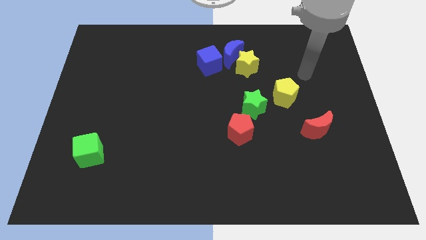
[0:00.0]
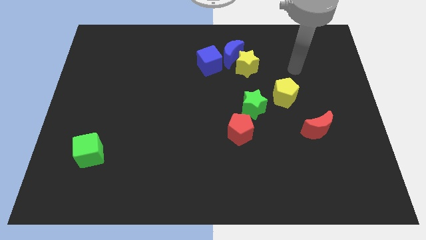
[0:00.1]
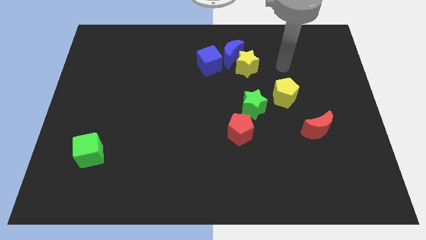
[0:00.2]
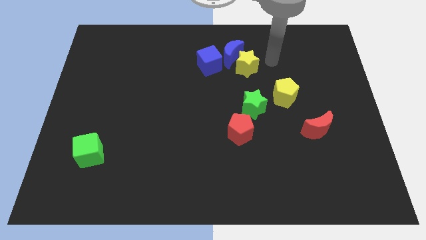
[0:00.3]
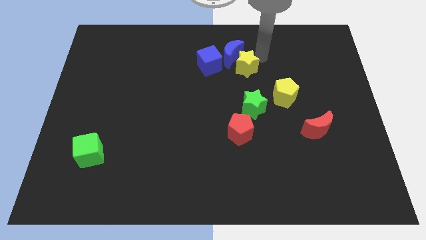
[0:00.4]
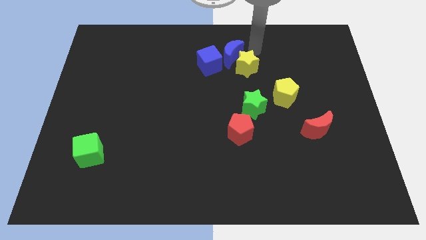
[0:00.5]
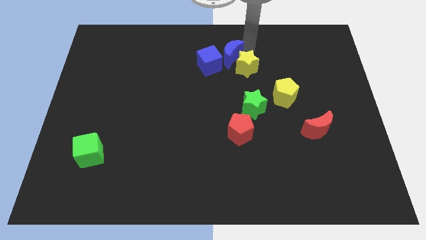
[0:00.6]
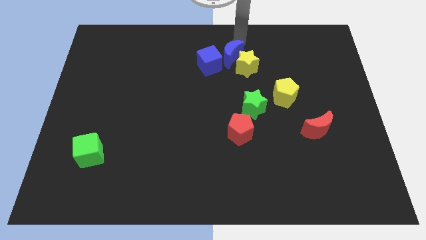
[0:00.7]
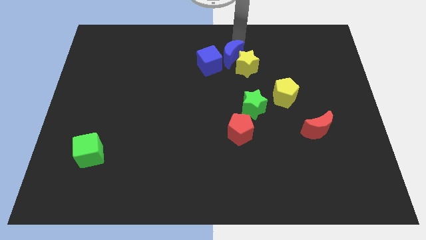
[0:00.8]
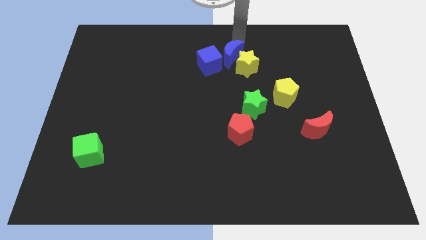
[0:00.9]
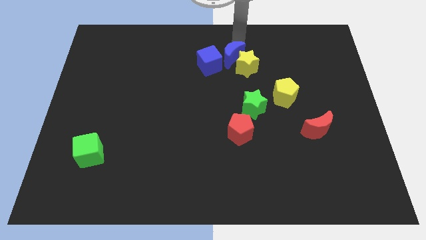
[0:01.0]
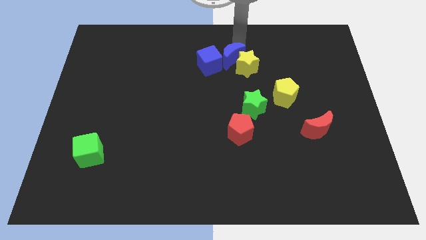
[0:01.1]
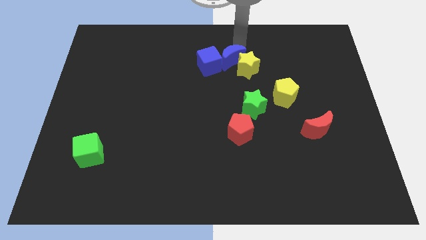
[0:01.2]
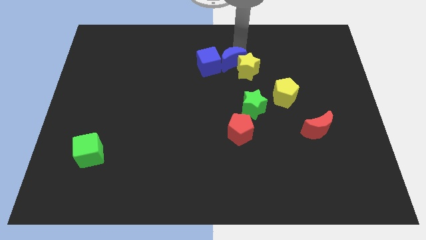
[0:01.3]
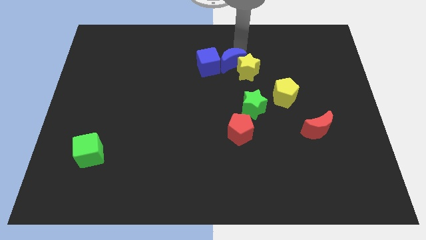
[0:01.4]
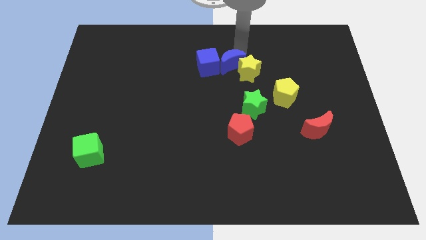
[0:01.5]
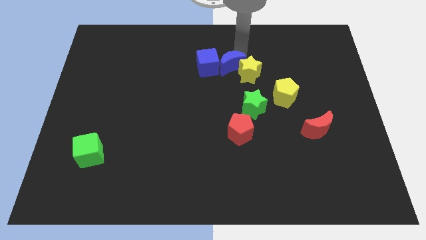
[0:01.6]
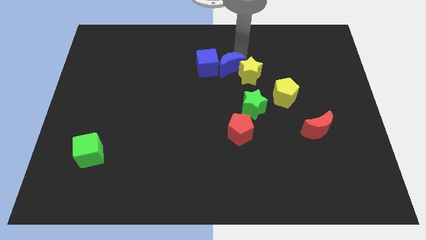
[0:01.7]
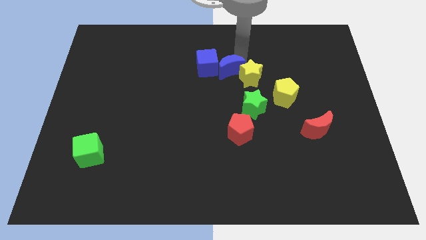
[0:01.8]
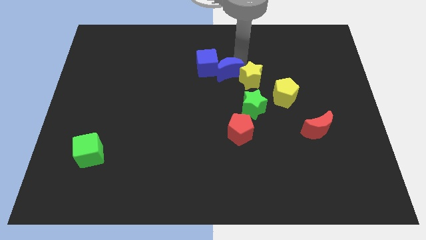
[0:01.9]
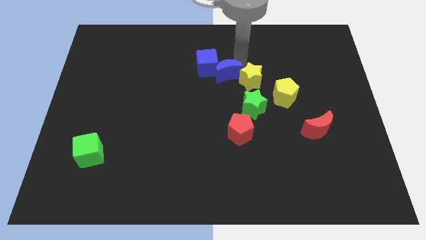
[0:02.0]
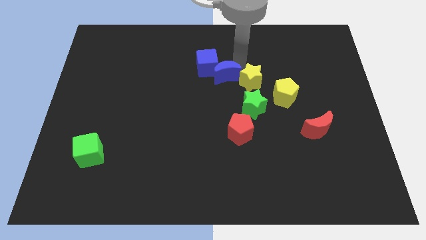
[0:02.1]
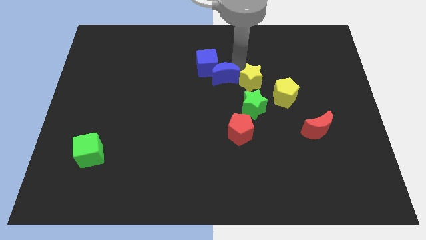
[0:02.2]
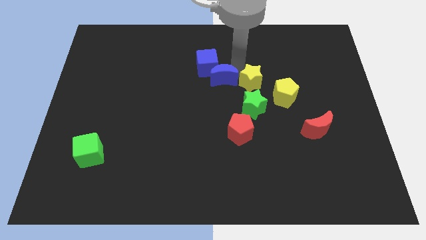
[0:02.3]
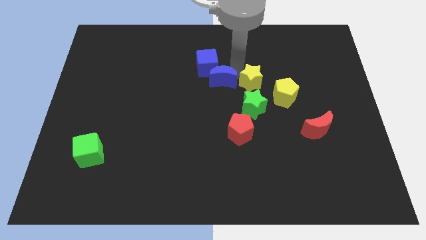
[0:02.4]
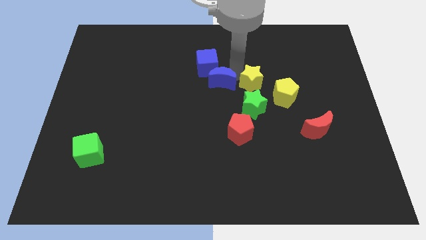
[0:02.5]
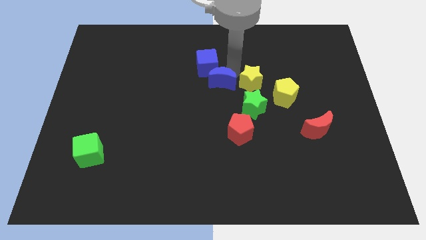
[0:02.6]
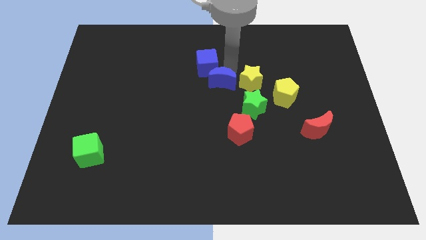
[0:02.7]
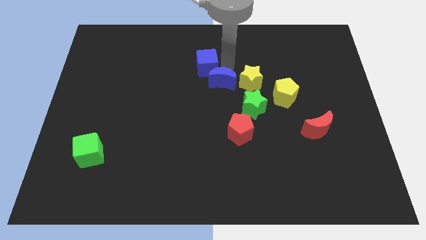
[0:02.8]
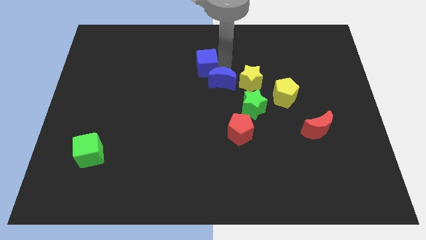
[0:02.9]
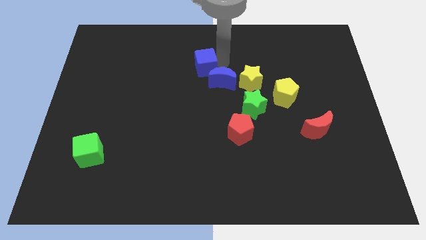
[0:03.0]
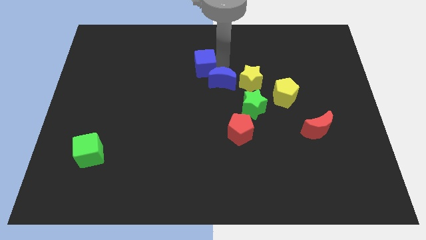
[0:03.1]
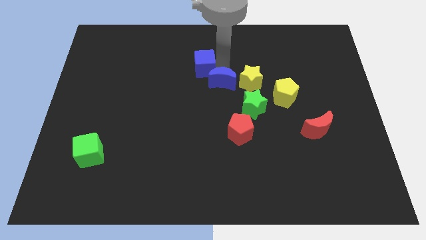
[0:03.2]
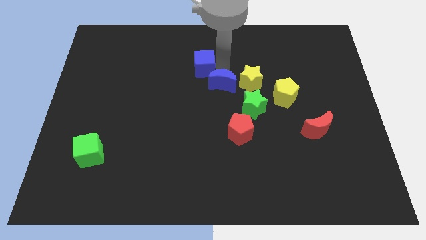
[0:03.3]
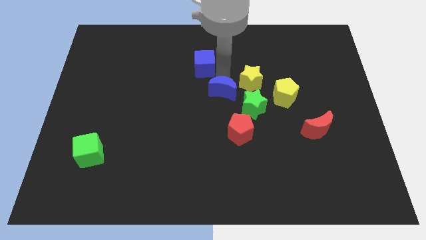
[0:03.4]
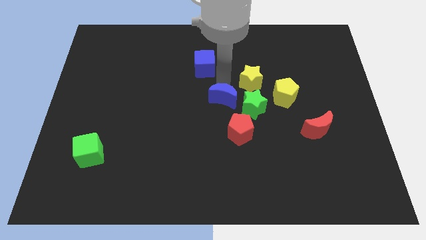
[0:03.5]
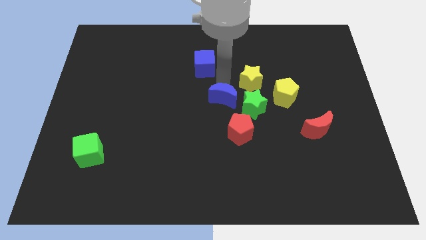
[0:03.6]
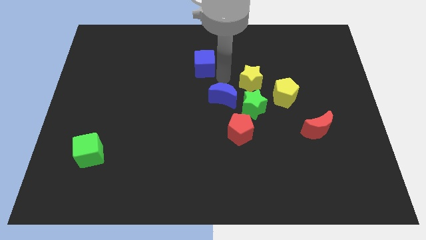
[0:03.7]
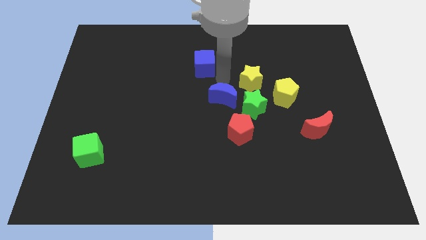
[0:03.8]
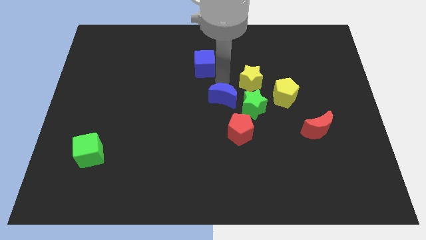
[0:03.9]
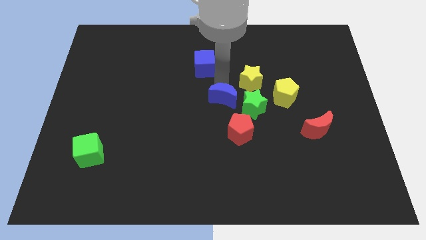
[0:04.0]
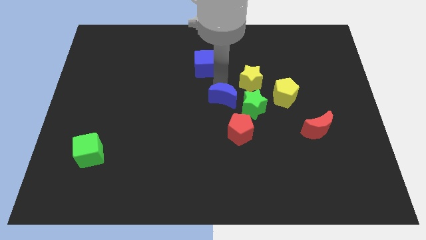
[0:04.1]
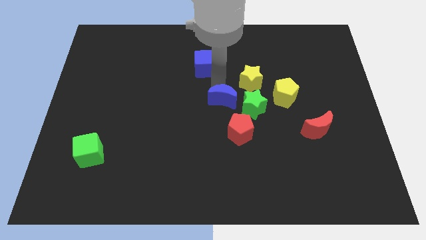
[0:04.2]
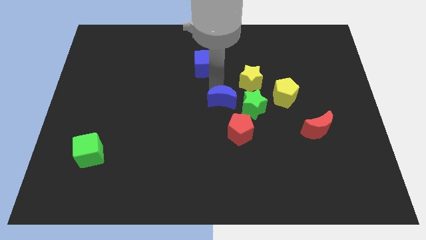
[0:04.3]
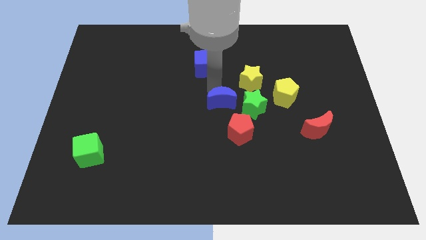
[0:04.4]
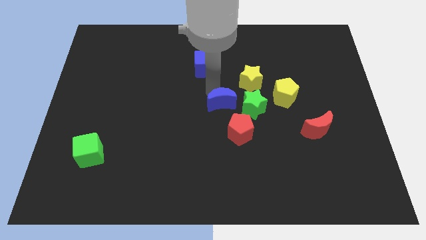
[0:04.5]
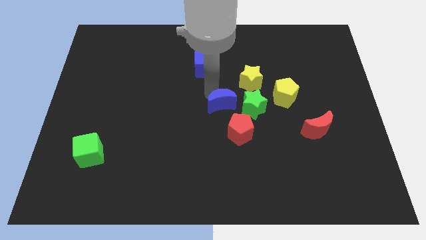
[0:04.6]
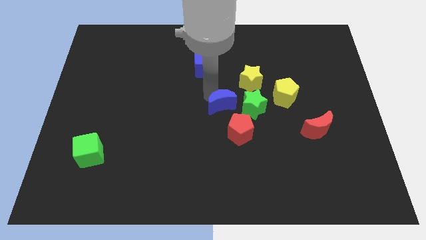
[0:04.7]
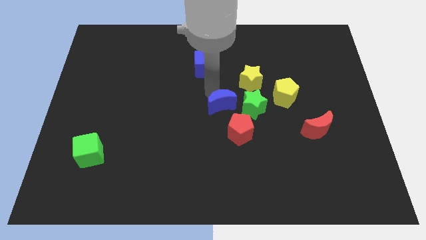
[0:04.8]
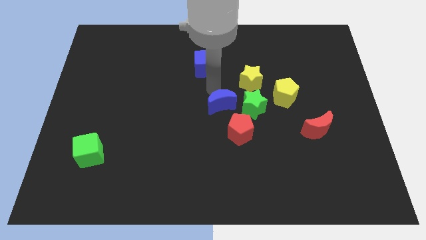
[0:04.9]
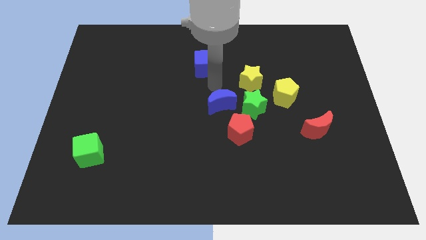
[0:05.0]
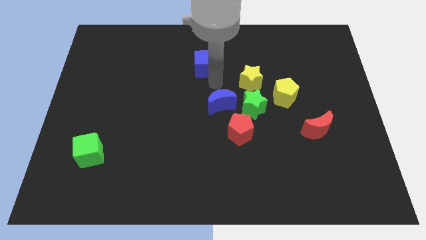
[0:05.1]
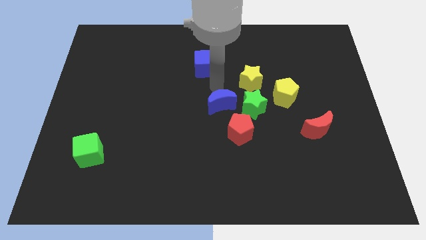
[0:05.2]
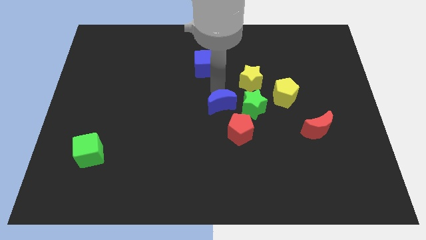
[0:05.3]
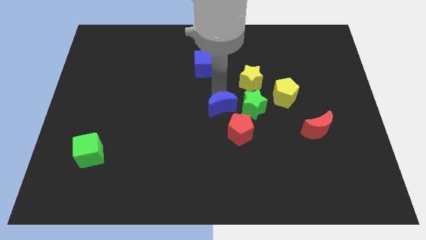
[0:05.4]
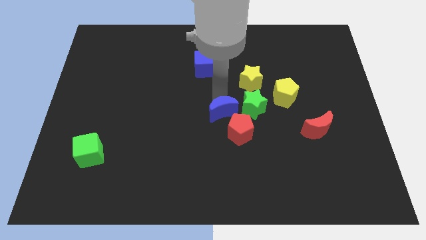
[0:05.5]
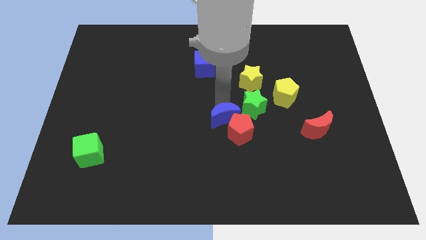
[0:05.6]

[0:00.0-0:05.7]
move the blue moon downwards

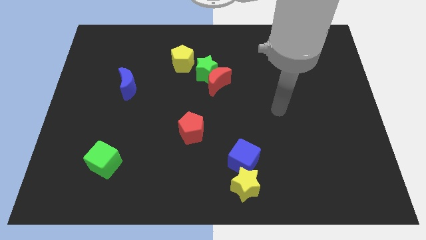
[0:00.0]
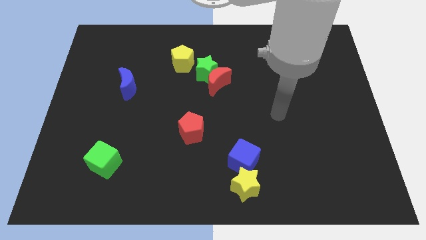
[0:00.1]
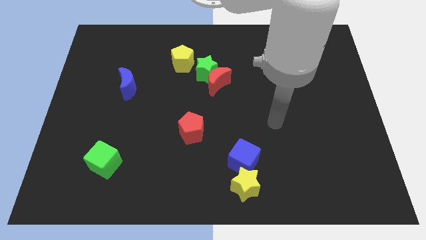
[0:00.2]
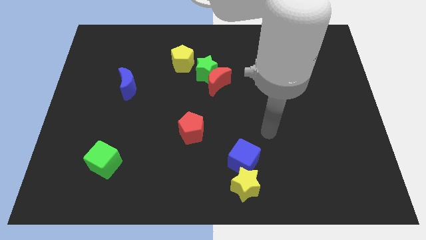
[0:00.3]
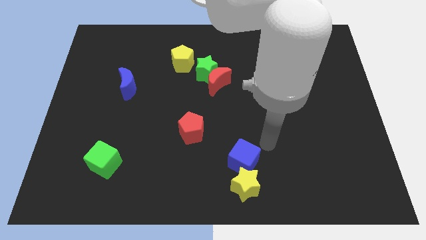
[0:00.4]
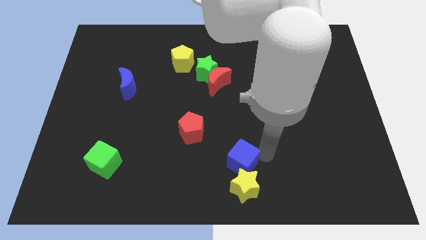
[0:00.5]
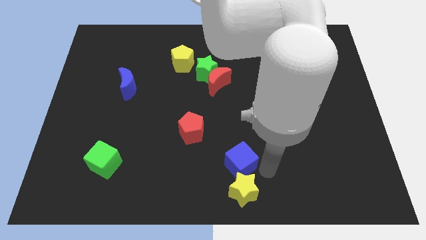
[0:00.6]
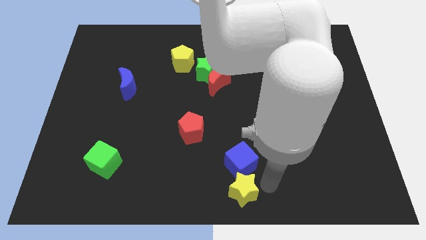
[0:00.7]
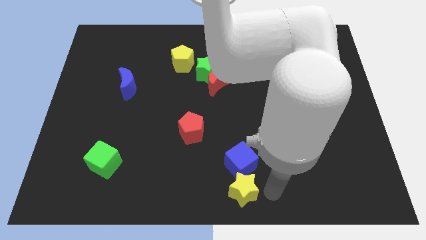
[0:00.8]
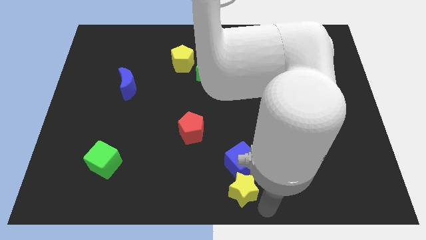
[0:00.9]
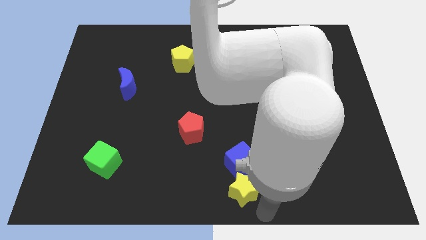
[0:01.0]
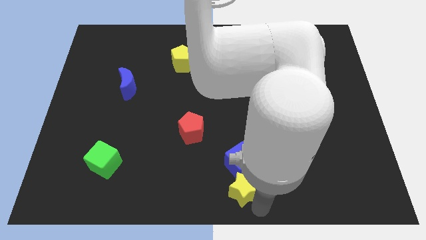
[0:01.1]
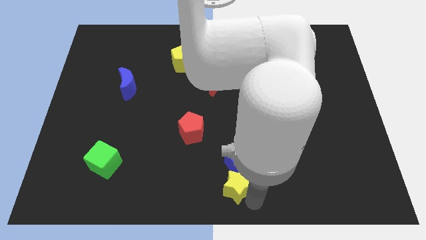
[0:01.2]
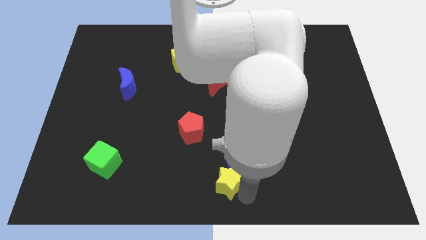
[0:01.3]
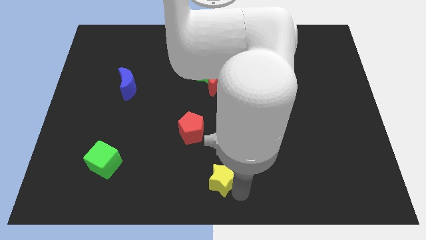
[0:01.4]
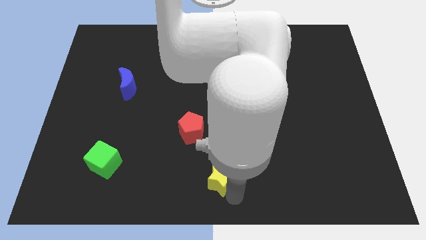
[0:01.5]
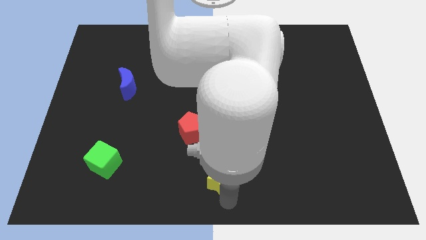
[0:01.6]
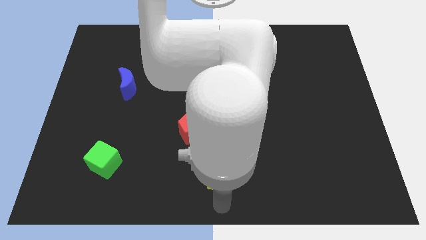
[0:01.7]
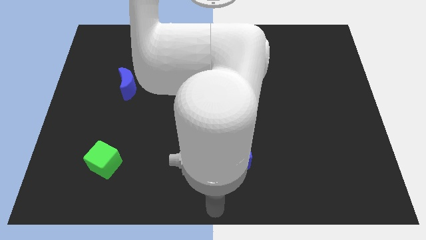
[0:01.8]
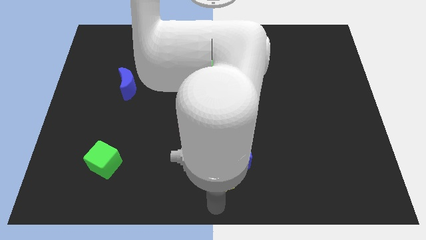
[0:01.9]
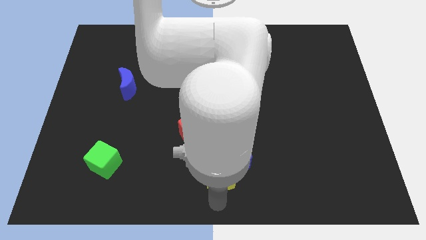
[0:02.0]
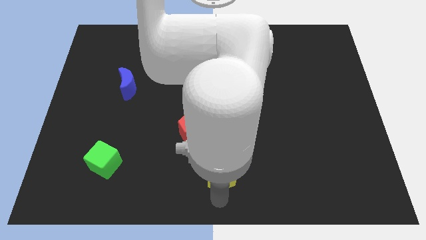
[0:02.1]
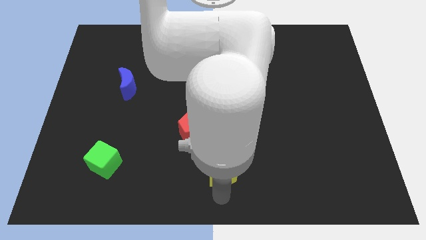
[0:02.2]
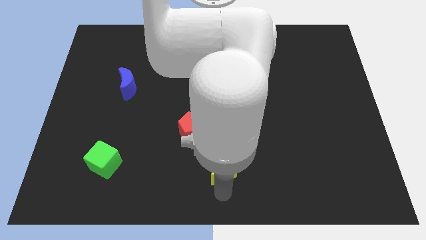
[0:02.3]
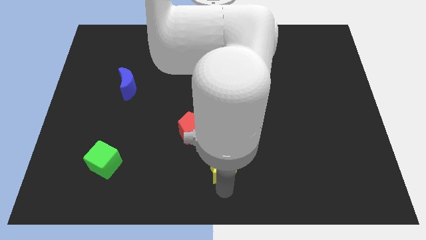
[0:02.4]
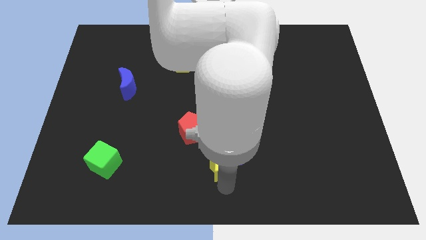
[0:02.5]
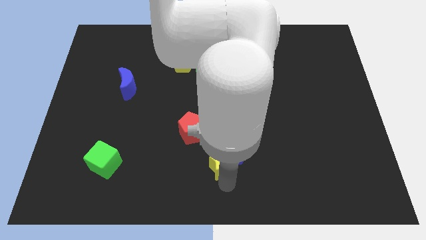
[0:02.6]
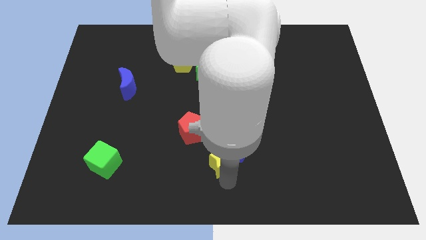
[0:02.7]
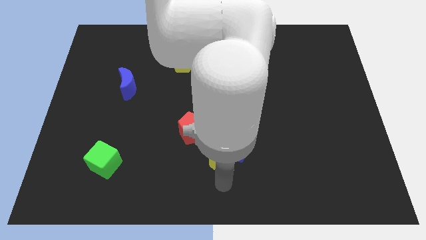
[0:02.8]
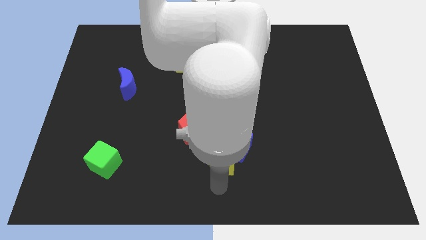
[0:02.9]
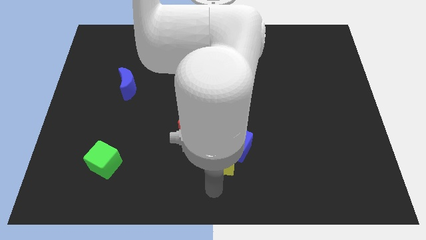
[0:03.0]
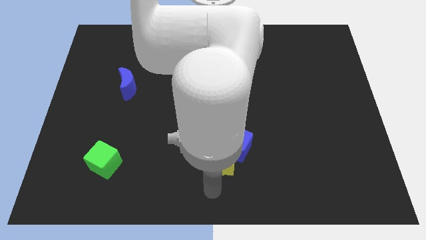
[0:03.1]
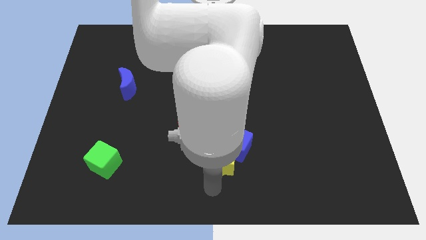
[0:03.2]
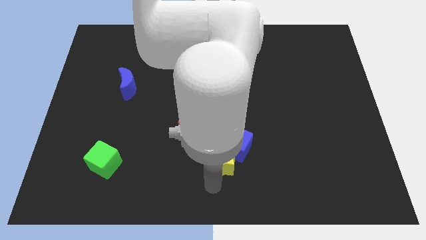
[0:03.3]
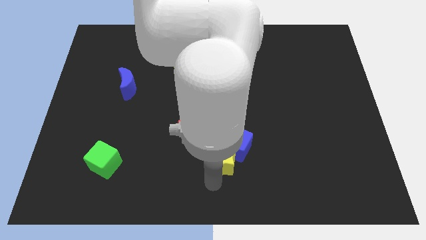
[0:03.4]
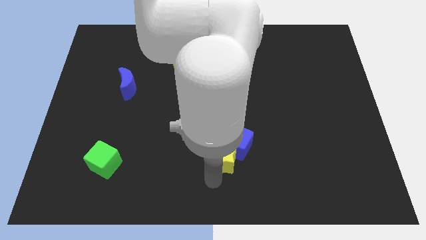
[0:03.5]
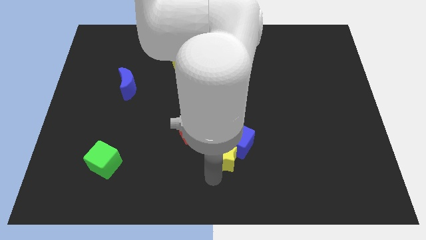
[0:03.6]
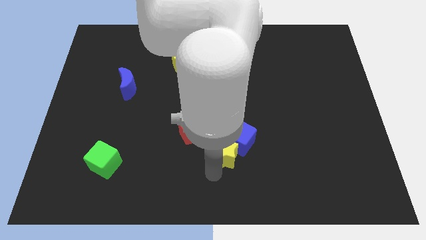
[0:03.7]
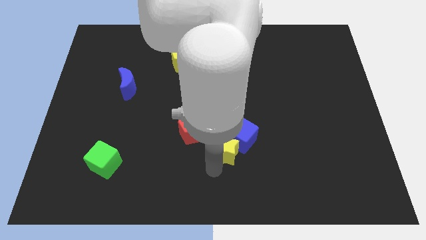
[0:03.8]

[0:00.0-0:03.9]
slide the yellow star up somewhat
